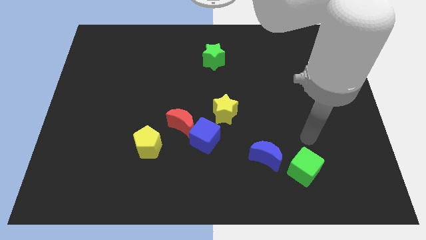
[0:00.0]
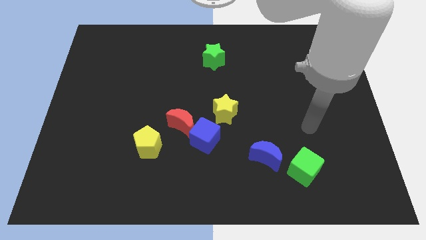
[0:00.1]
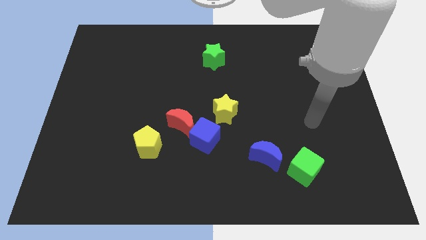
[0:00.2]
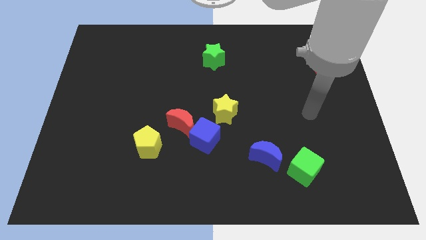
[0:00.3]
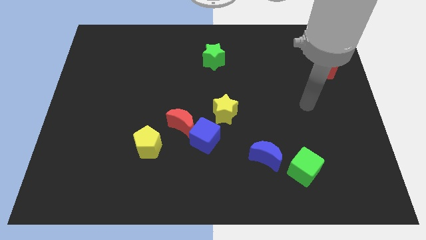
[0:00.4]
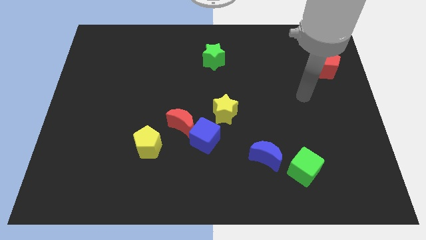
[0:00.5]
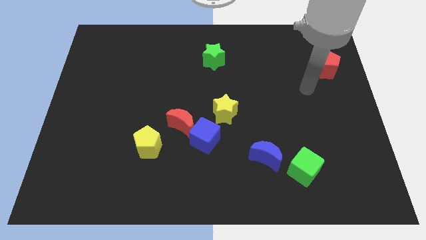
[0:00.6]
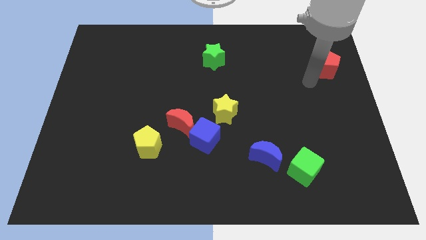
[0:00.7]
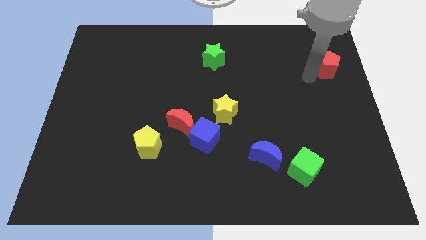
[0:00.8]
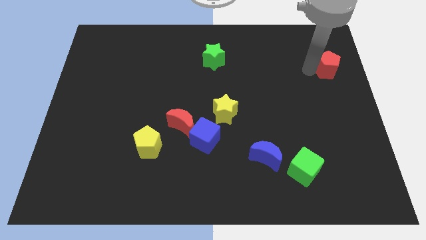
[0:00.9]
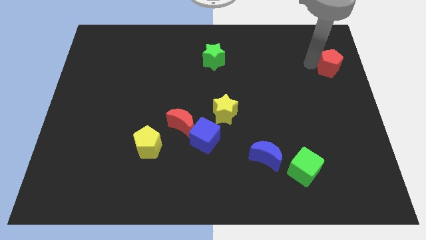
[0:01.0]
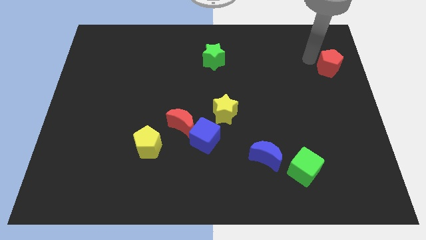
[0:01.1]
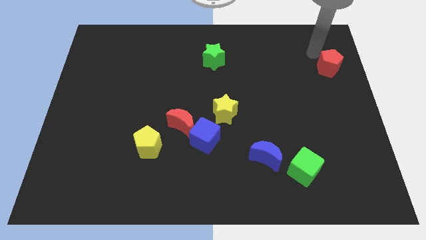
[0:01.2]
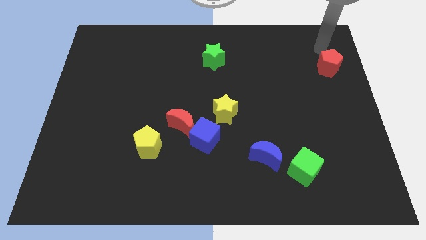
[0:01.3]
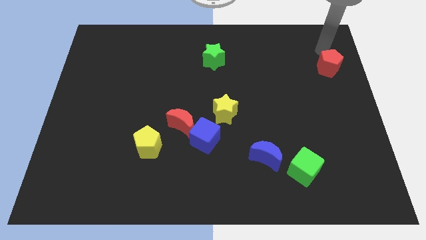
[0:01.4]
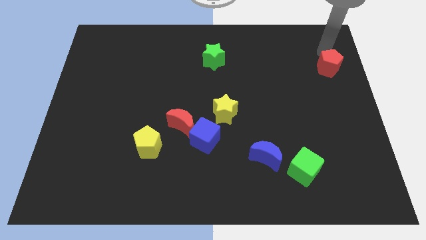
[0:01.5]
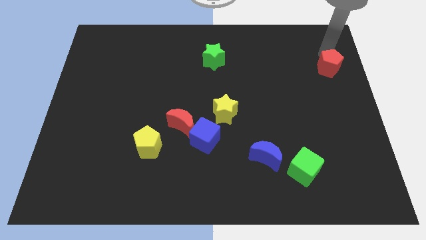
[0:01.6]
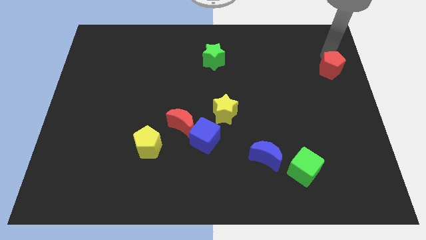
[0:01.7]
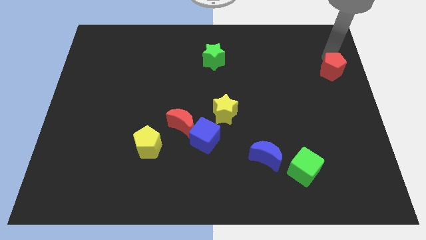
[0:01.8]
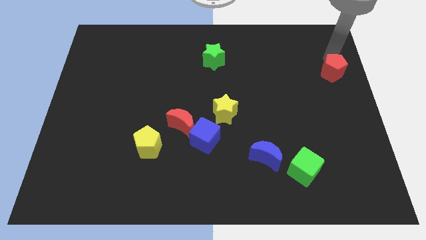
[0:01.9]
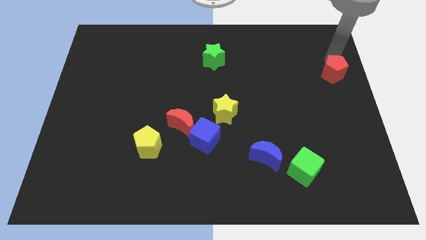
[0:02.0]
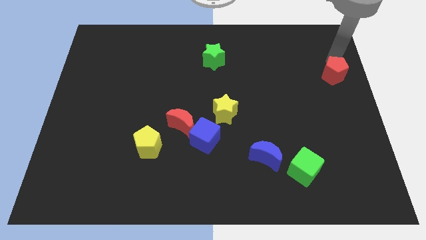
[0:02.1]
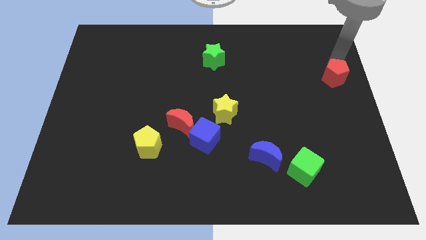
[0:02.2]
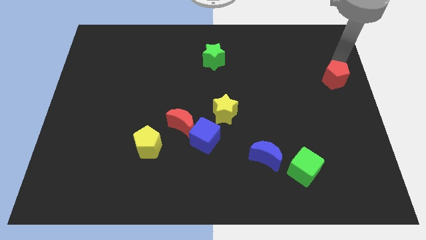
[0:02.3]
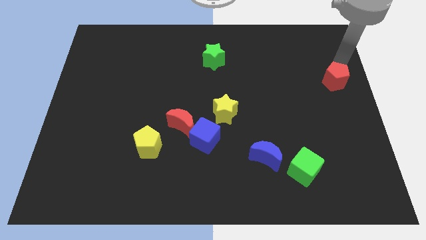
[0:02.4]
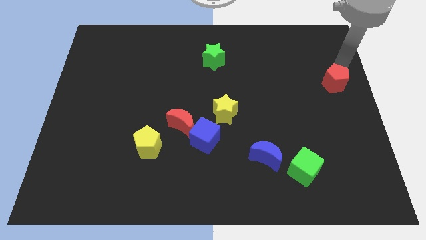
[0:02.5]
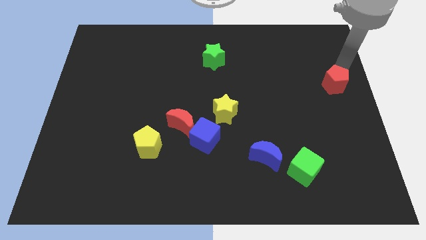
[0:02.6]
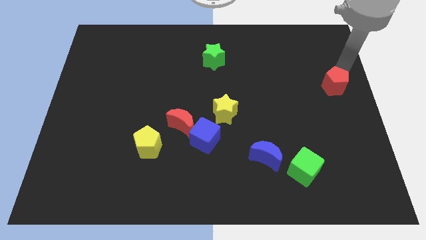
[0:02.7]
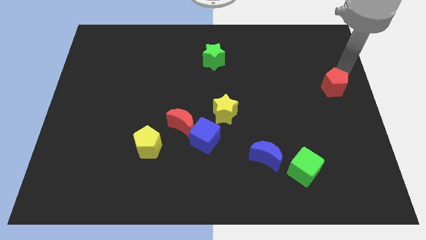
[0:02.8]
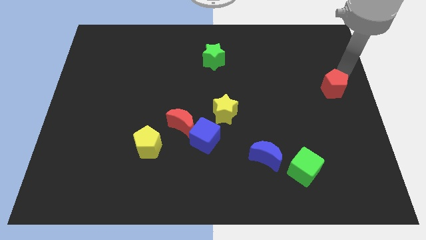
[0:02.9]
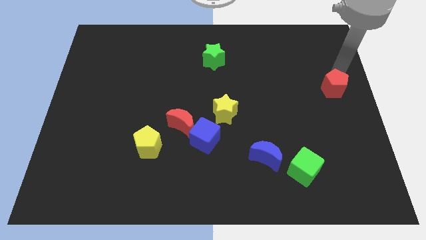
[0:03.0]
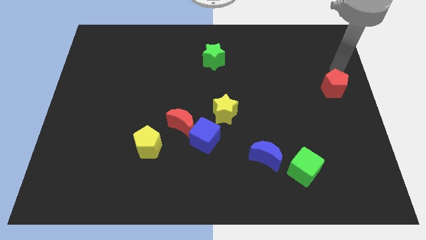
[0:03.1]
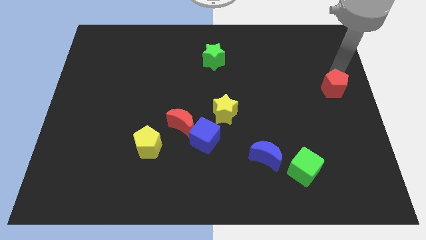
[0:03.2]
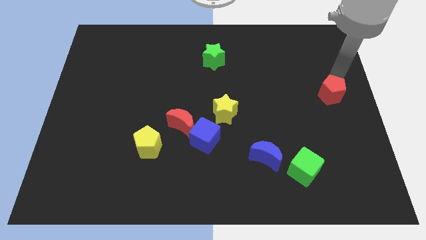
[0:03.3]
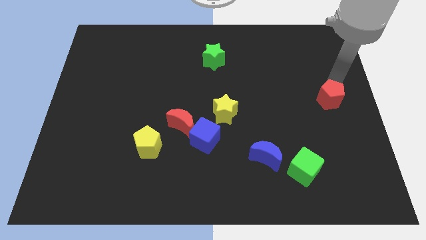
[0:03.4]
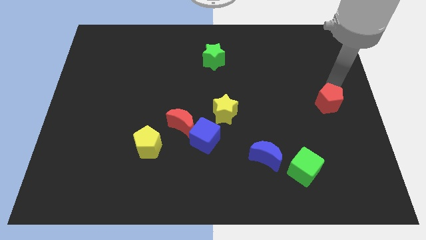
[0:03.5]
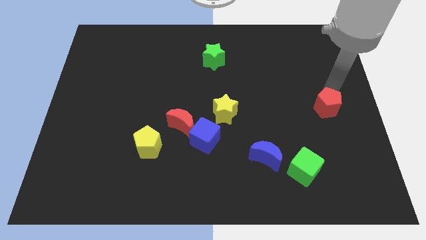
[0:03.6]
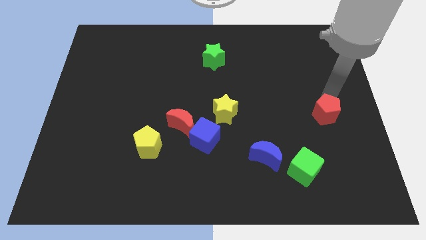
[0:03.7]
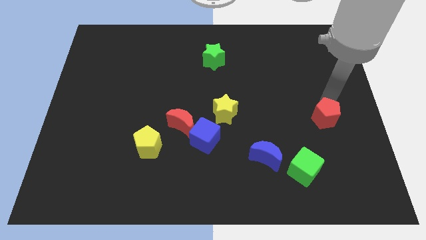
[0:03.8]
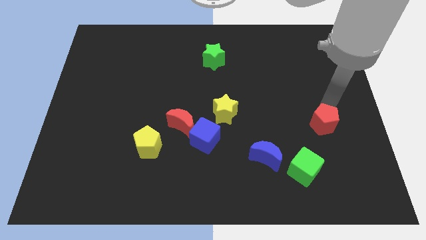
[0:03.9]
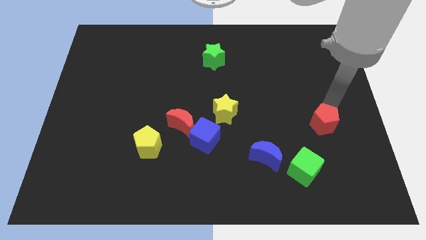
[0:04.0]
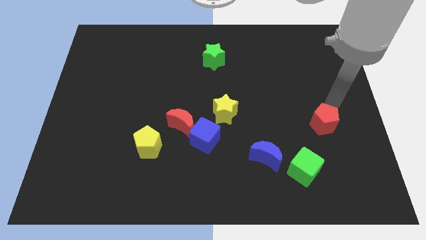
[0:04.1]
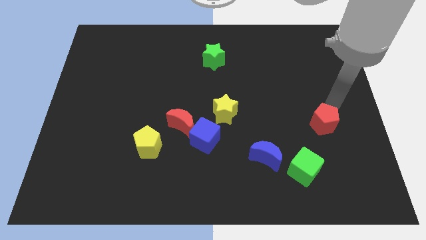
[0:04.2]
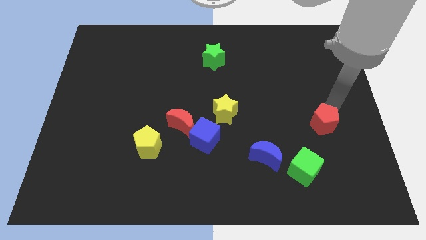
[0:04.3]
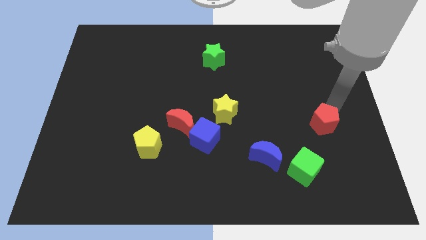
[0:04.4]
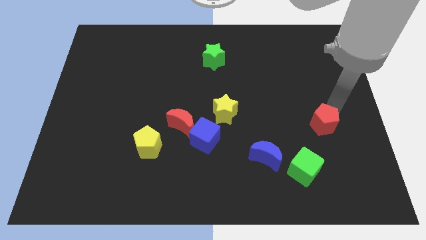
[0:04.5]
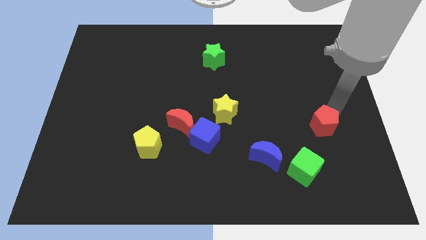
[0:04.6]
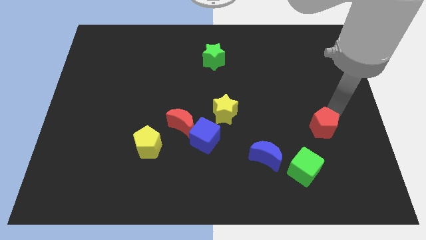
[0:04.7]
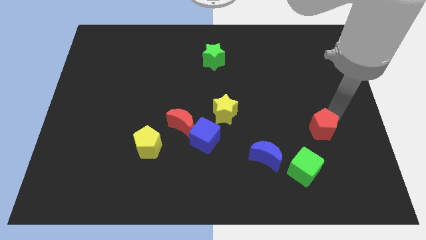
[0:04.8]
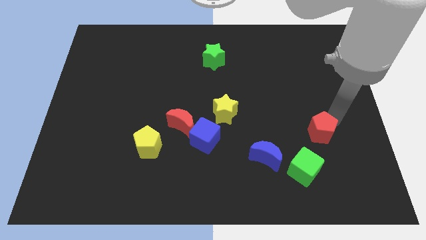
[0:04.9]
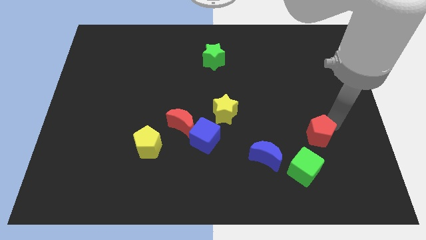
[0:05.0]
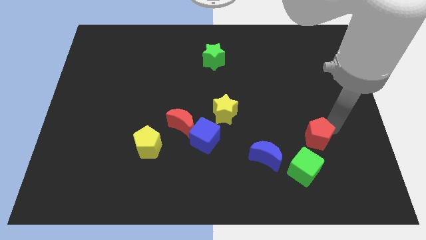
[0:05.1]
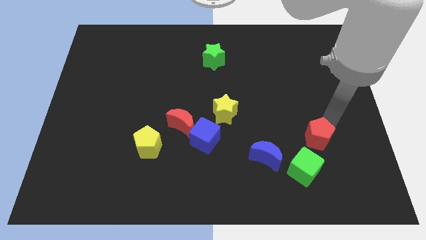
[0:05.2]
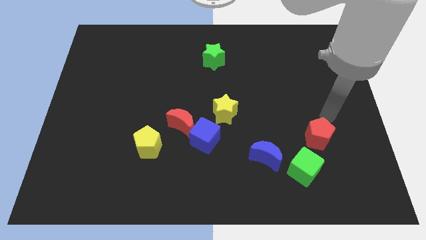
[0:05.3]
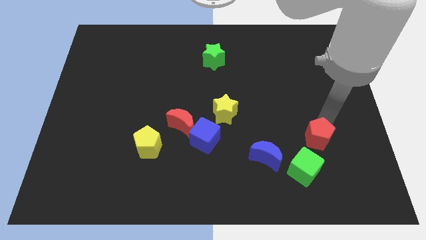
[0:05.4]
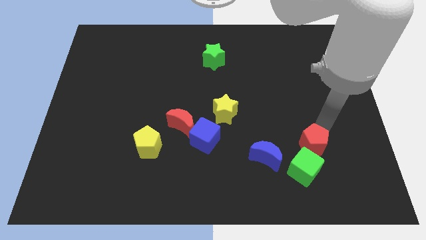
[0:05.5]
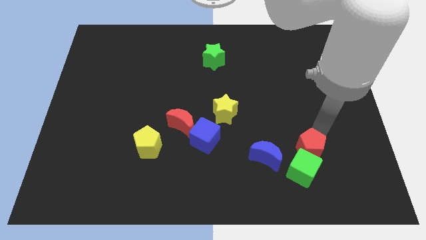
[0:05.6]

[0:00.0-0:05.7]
push the red pentagon close to the green cube

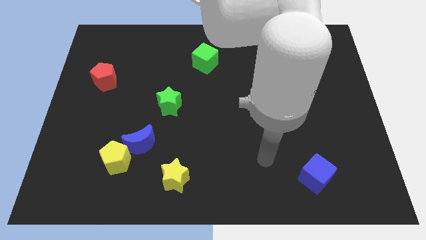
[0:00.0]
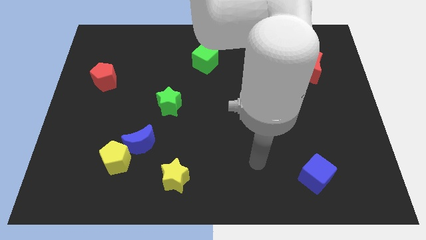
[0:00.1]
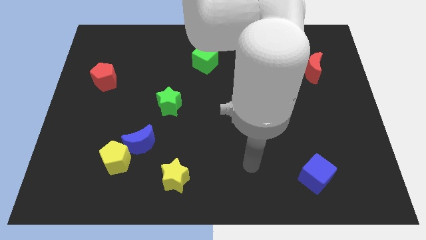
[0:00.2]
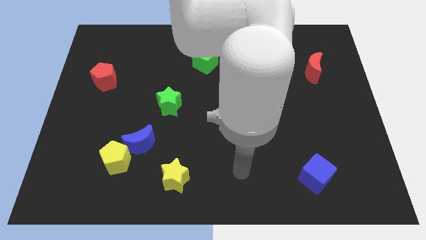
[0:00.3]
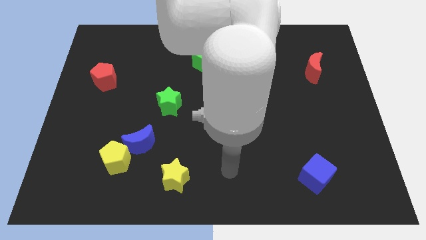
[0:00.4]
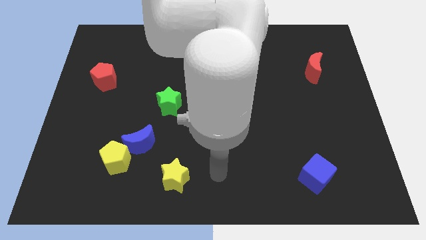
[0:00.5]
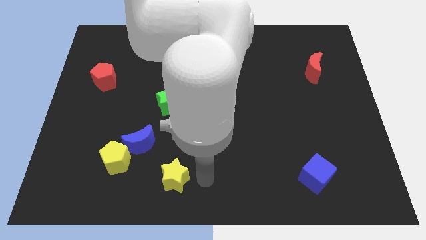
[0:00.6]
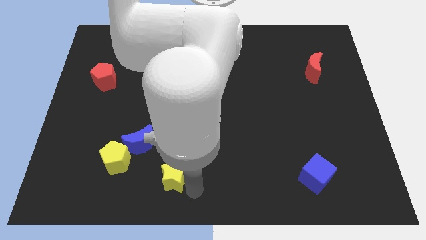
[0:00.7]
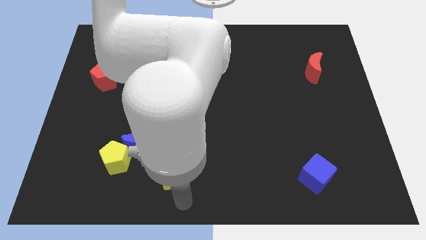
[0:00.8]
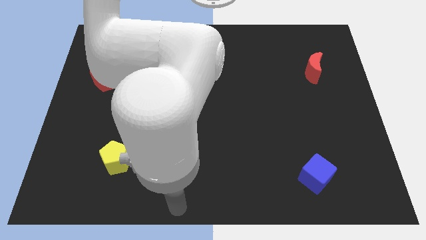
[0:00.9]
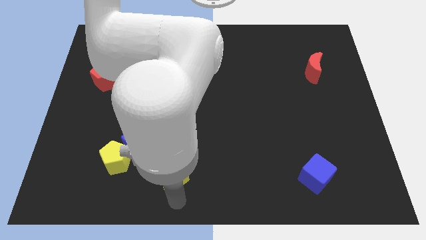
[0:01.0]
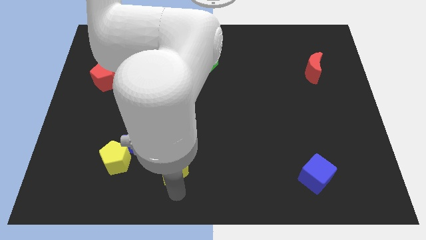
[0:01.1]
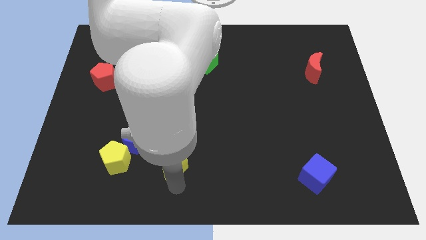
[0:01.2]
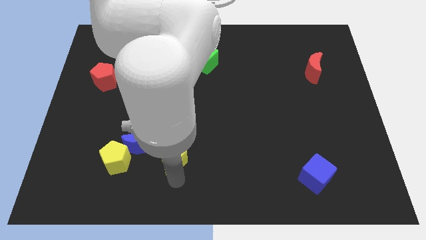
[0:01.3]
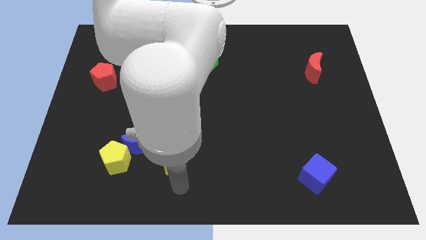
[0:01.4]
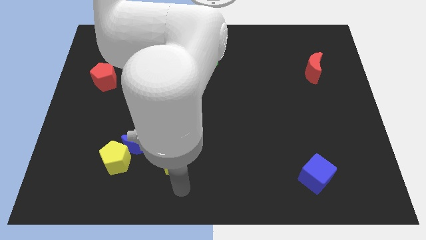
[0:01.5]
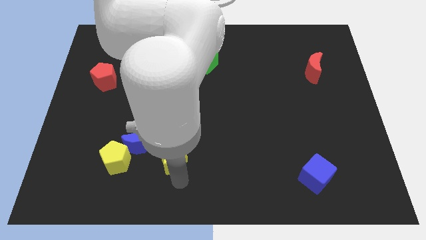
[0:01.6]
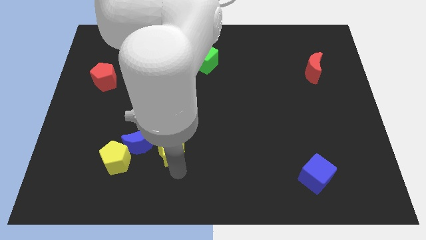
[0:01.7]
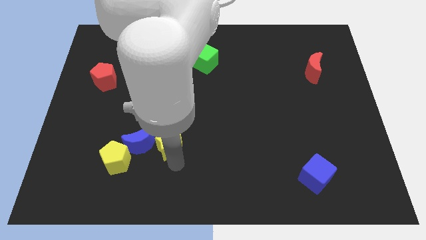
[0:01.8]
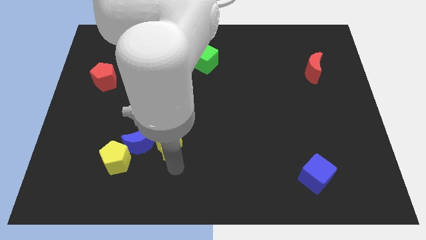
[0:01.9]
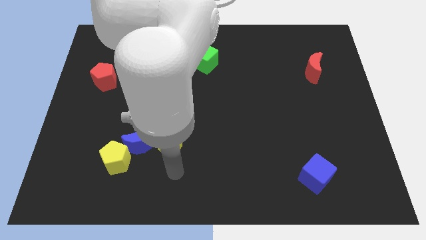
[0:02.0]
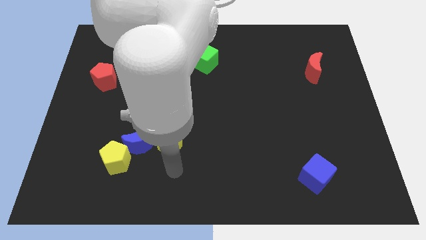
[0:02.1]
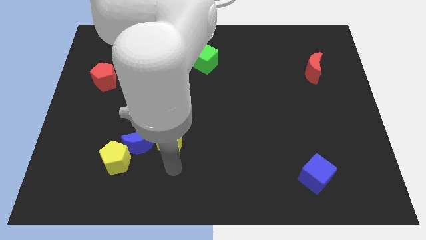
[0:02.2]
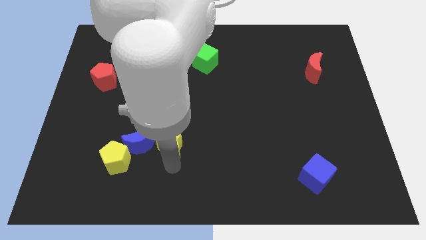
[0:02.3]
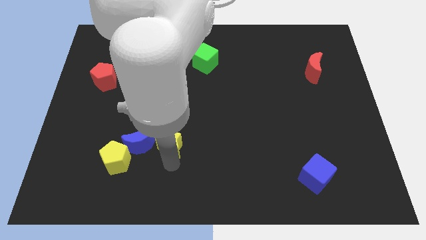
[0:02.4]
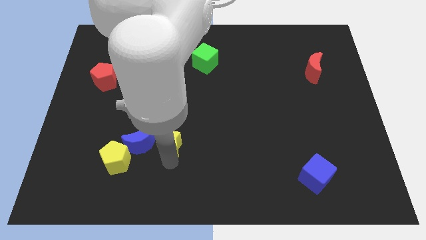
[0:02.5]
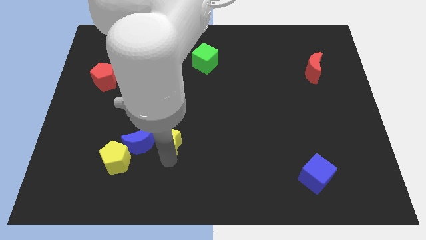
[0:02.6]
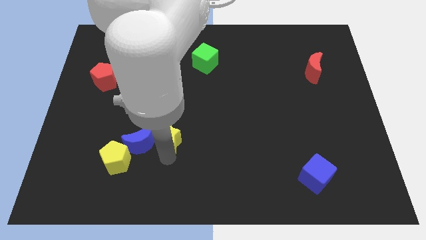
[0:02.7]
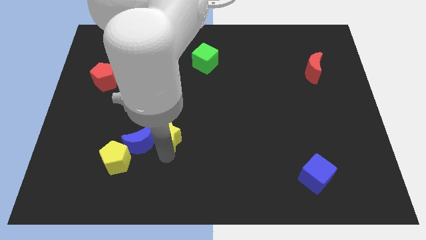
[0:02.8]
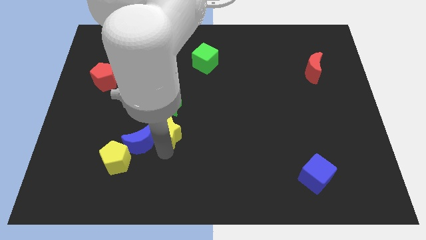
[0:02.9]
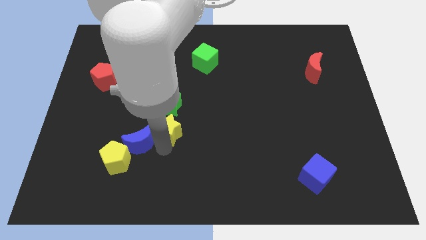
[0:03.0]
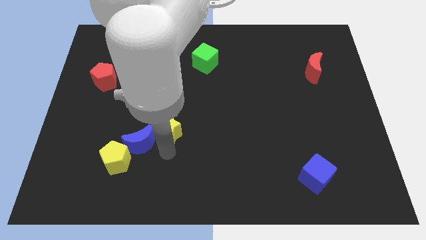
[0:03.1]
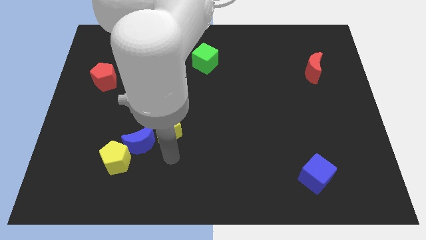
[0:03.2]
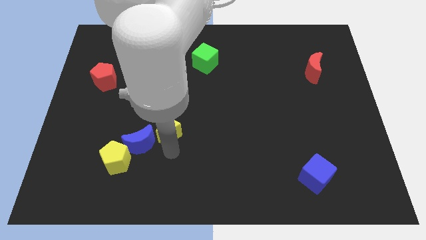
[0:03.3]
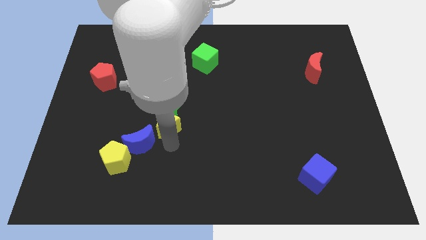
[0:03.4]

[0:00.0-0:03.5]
move the yellow star towards the green star
